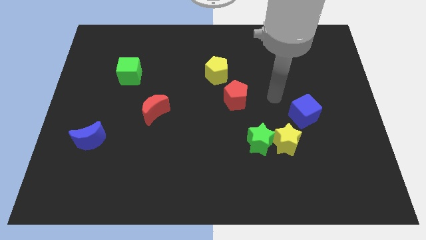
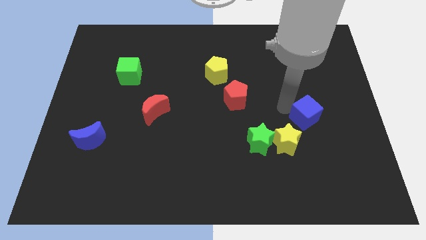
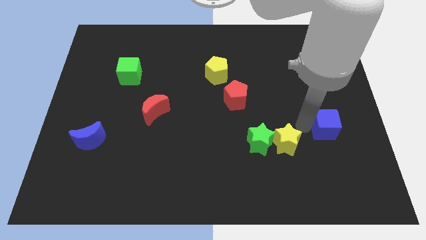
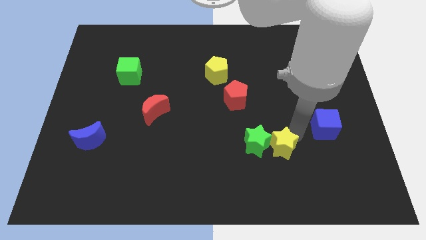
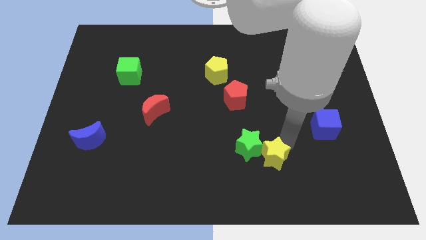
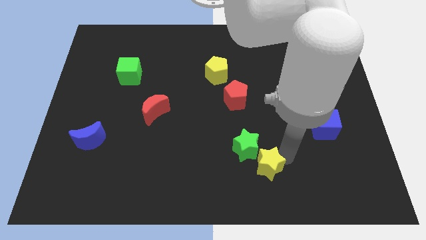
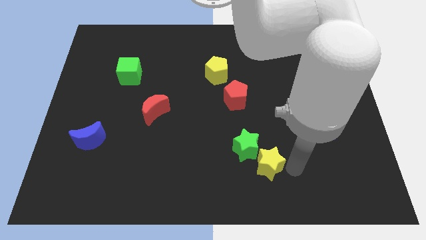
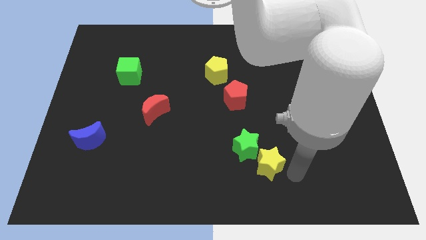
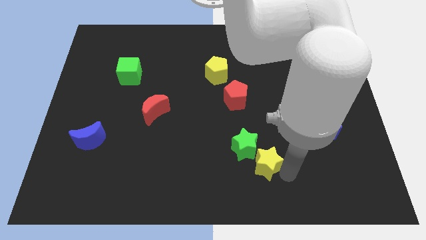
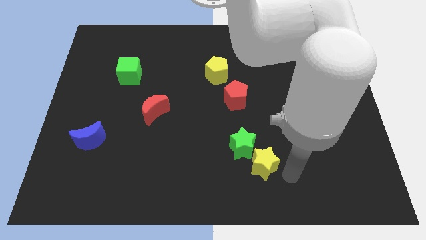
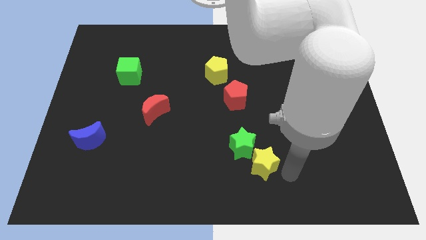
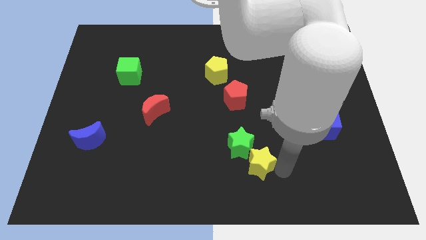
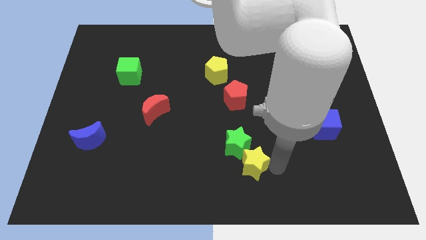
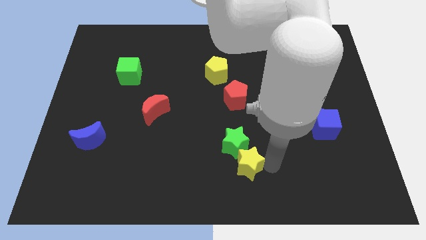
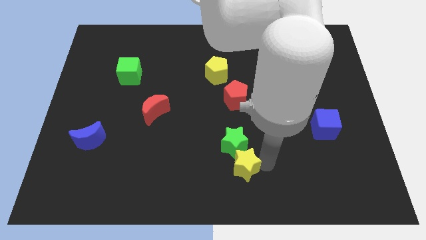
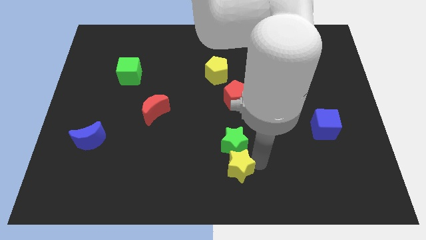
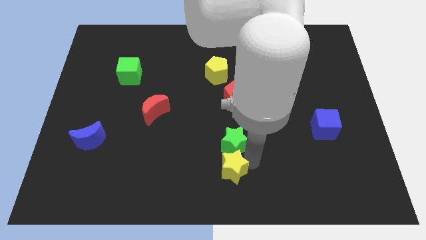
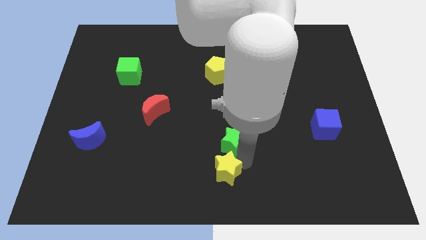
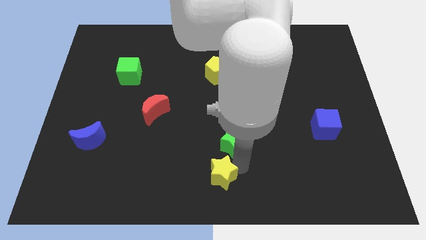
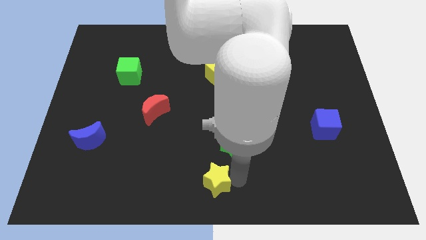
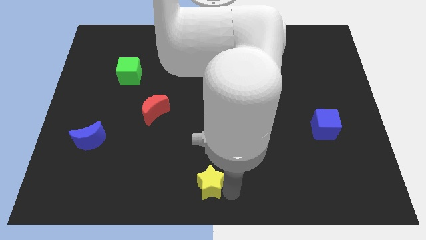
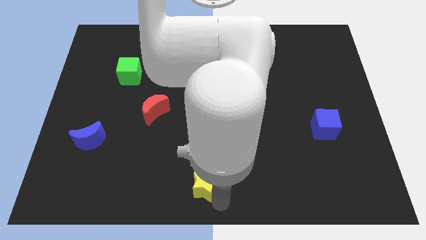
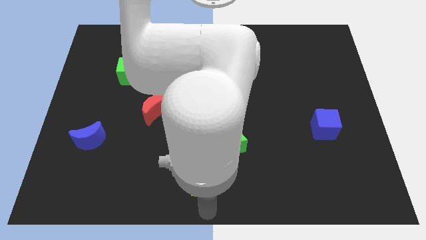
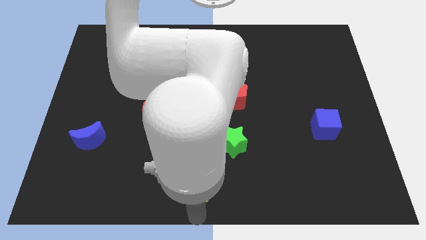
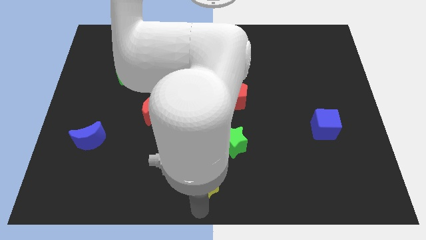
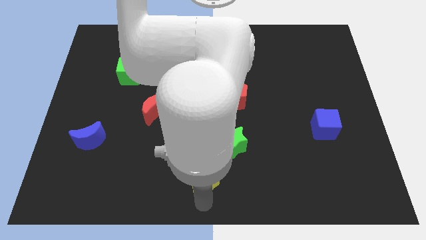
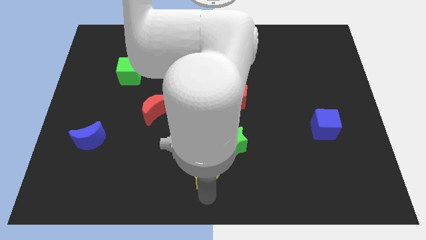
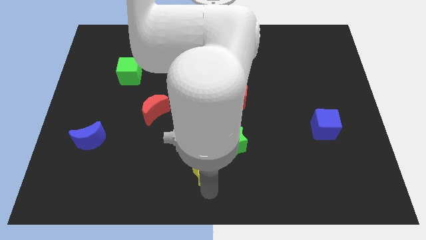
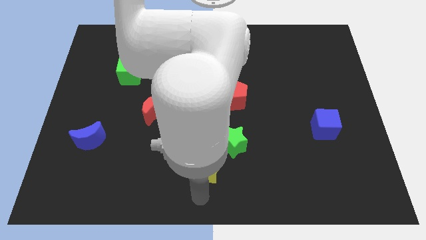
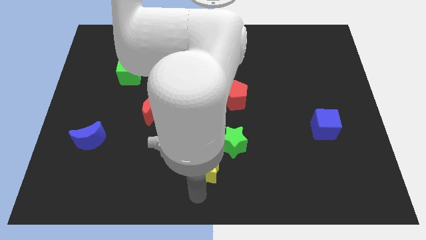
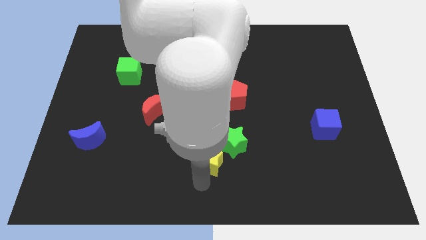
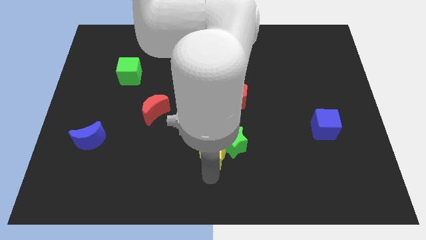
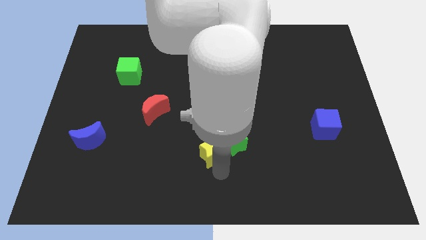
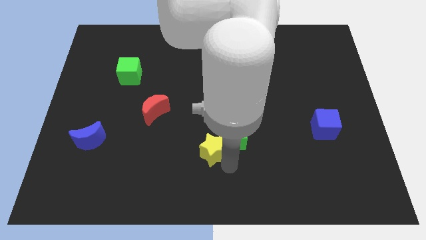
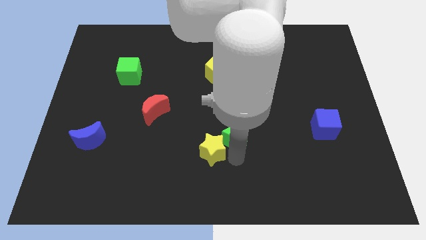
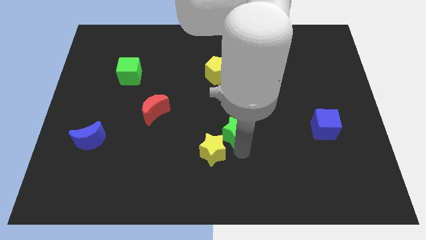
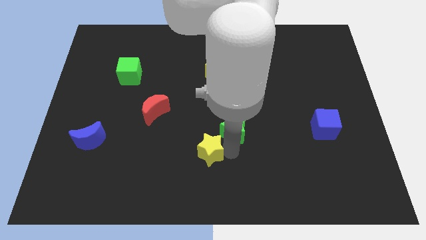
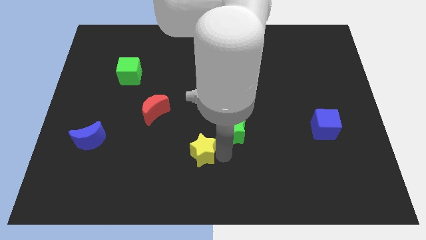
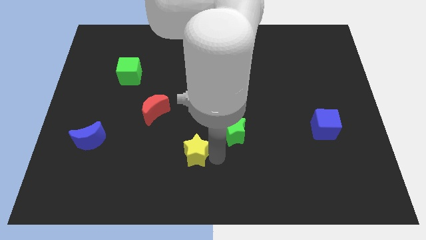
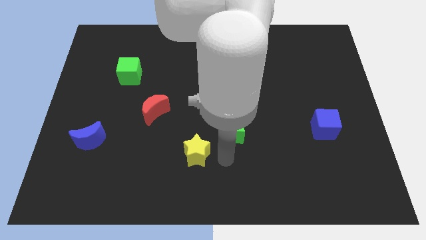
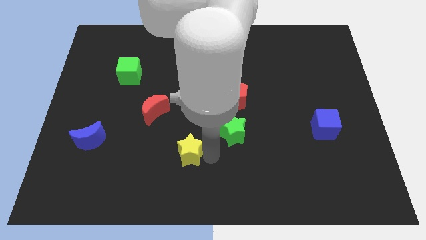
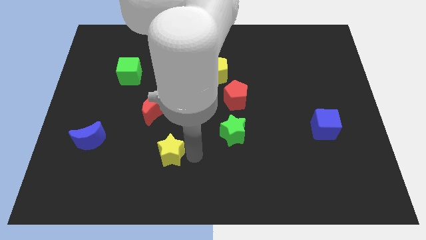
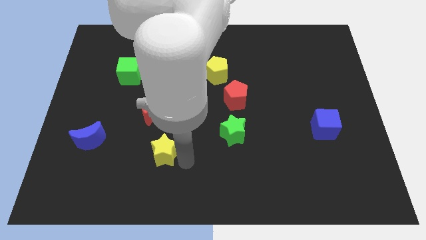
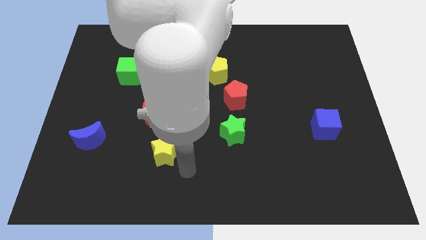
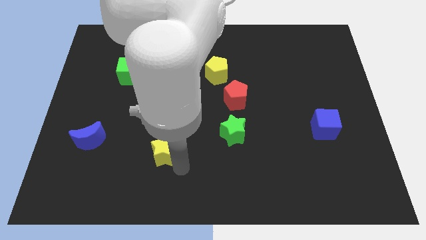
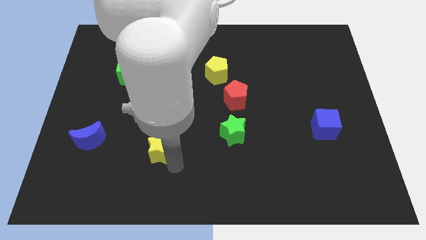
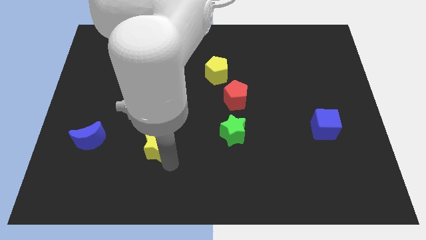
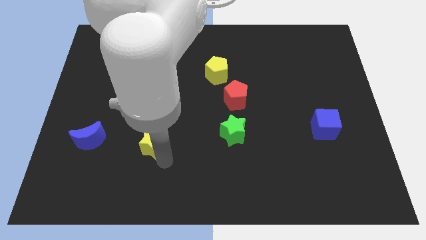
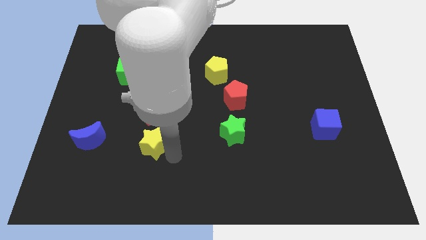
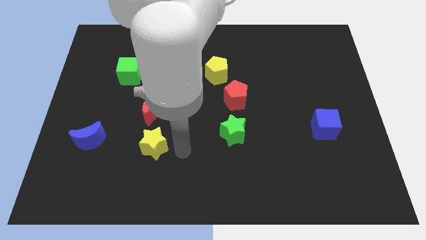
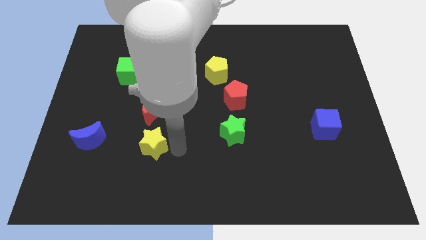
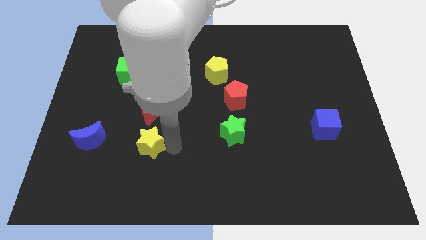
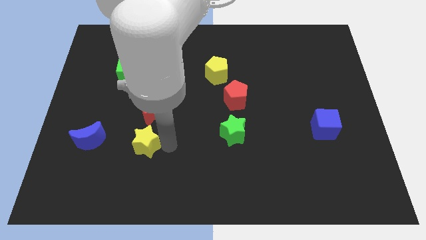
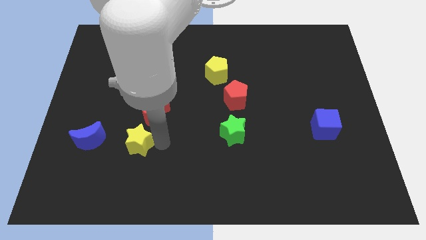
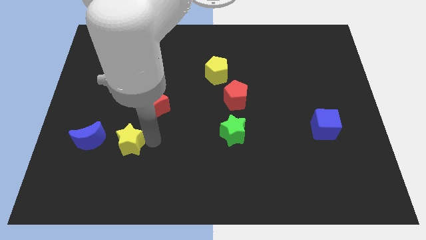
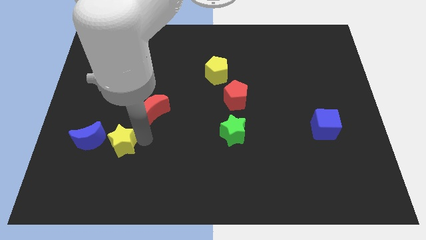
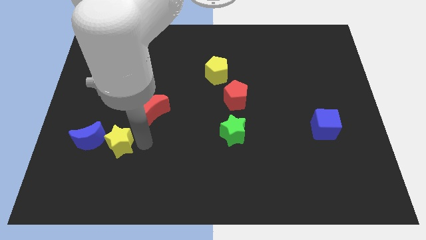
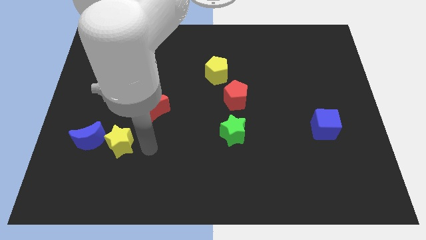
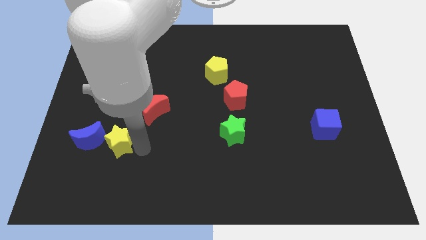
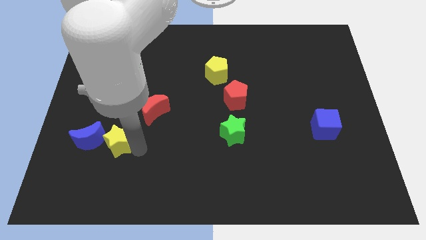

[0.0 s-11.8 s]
slide the yellow star next to the blue moon
